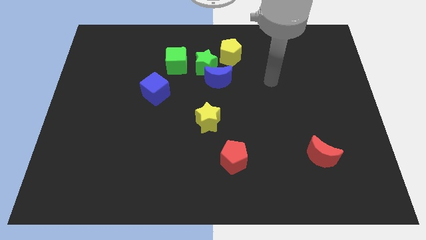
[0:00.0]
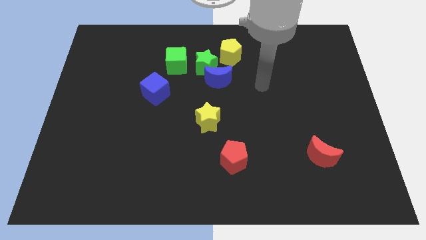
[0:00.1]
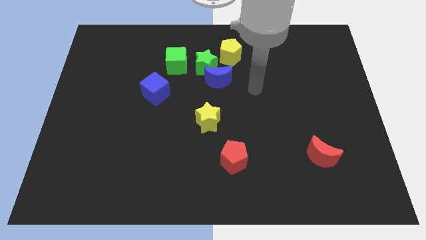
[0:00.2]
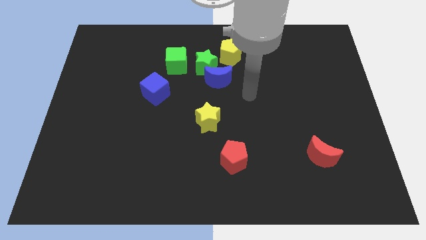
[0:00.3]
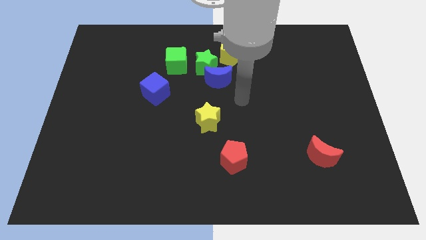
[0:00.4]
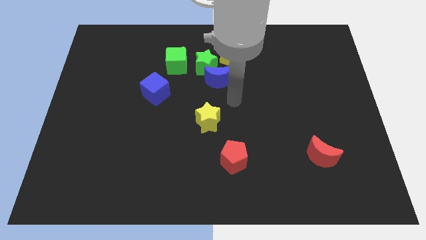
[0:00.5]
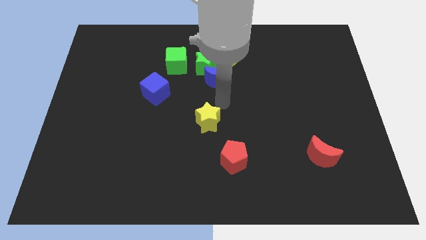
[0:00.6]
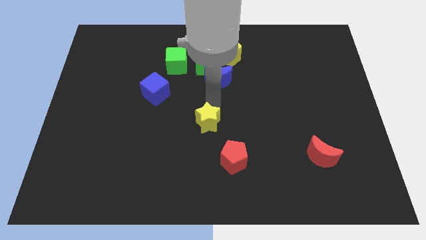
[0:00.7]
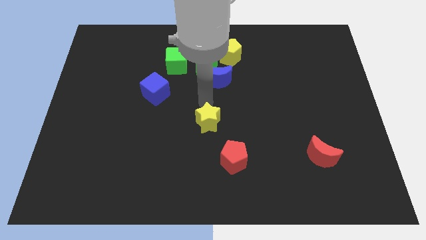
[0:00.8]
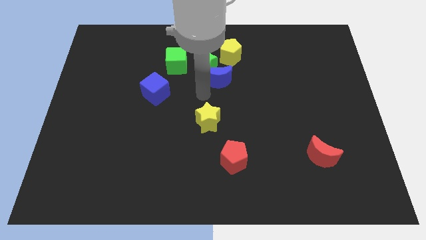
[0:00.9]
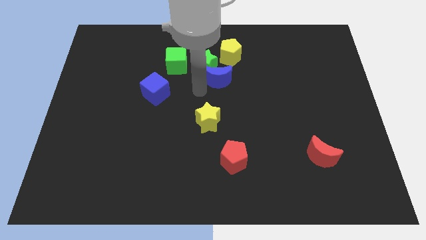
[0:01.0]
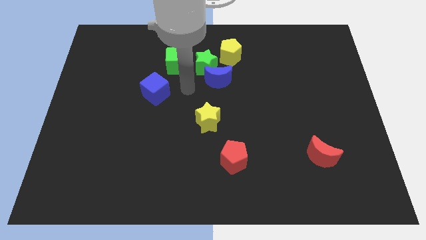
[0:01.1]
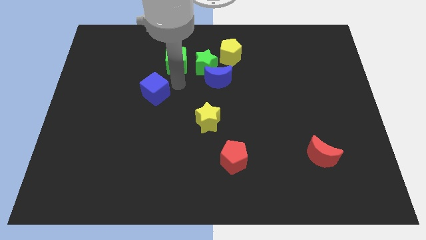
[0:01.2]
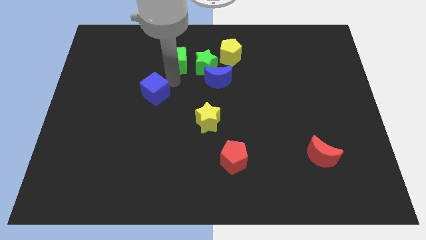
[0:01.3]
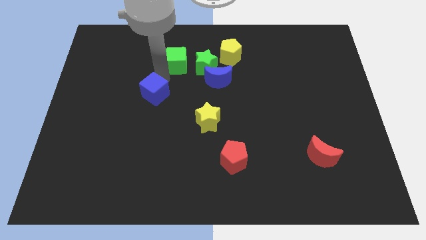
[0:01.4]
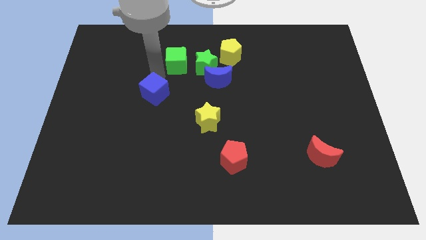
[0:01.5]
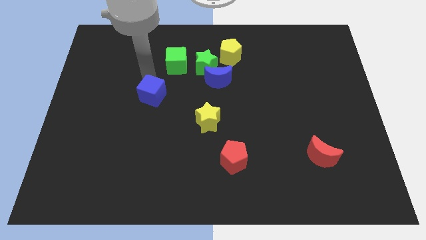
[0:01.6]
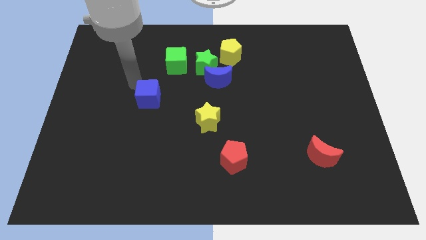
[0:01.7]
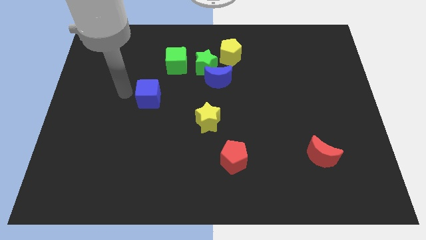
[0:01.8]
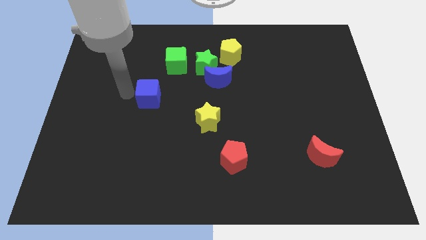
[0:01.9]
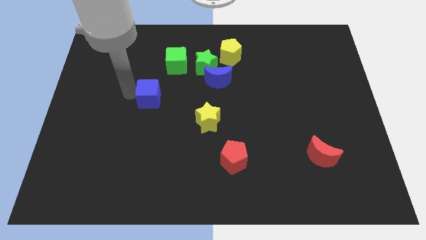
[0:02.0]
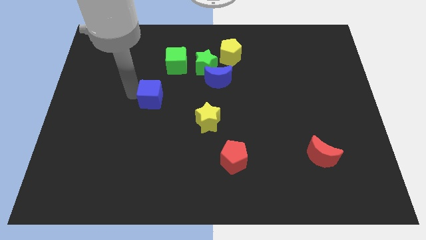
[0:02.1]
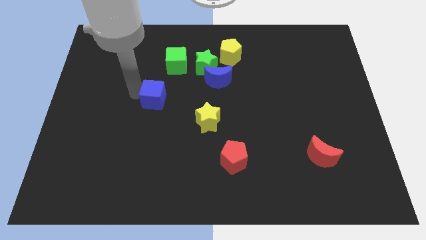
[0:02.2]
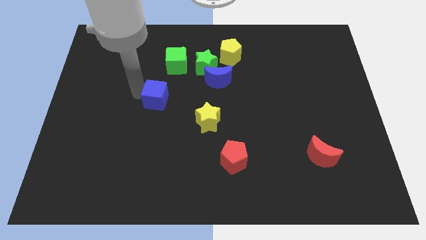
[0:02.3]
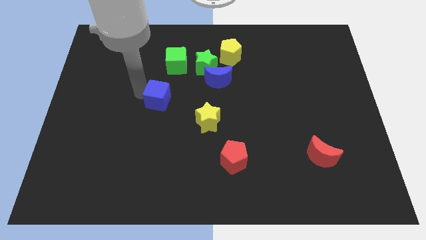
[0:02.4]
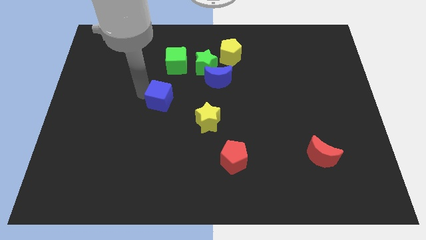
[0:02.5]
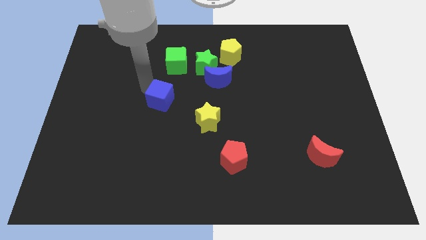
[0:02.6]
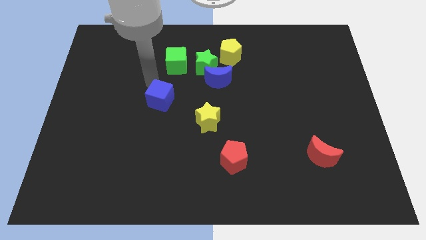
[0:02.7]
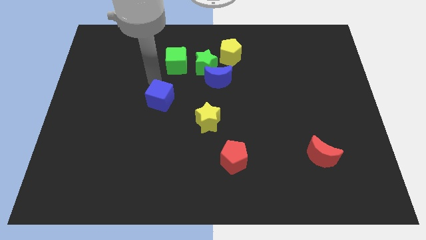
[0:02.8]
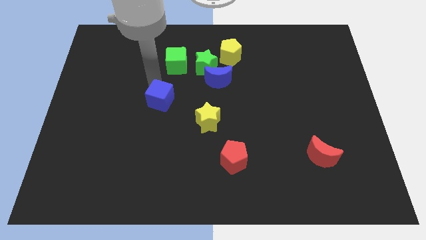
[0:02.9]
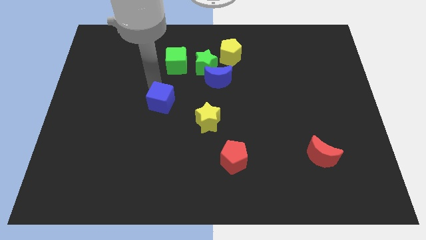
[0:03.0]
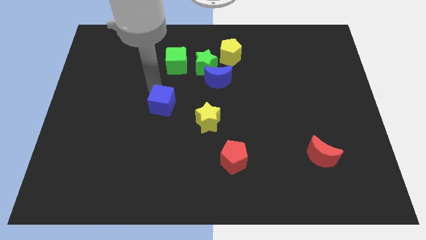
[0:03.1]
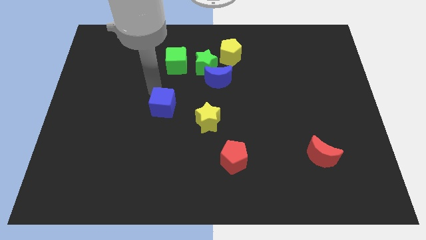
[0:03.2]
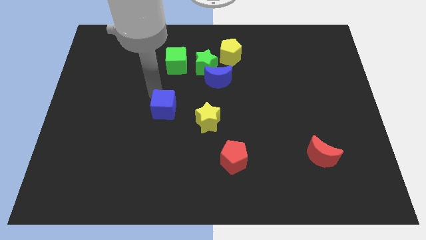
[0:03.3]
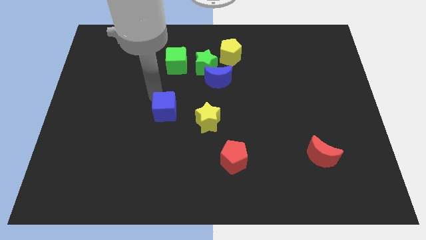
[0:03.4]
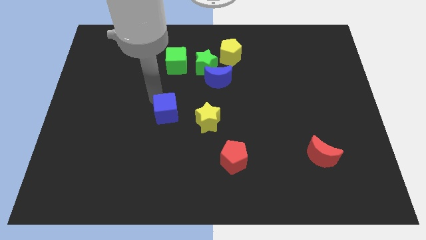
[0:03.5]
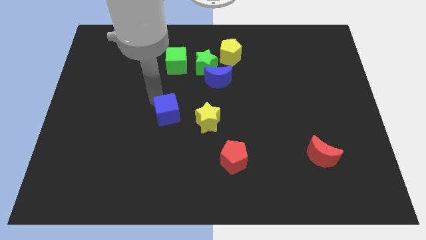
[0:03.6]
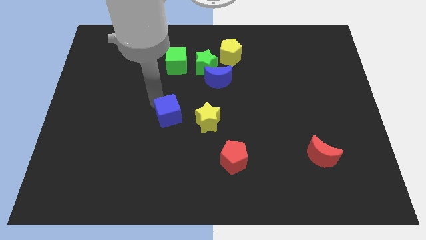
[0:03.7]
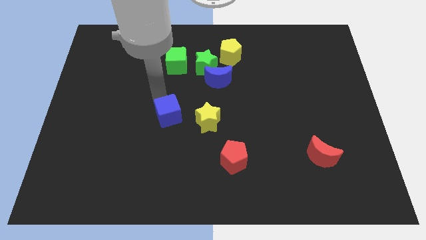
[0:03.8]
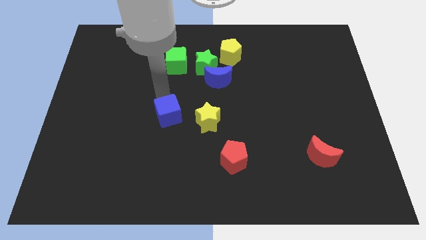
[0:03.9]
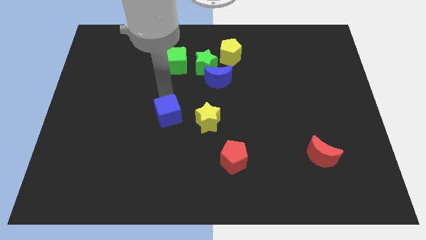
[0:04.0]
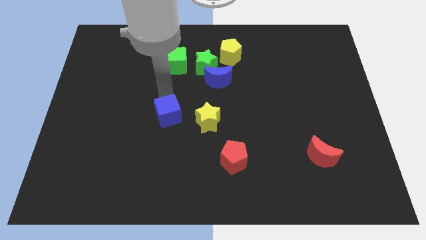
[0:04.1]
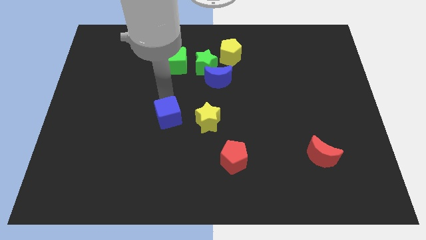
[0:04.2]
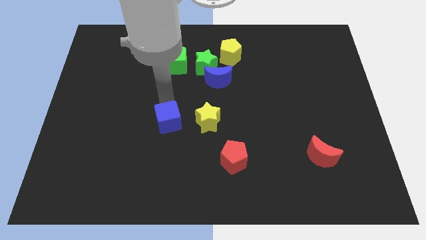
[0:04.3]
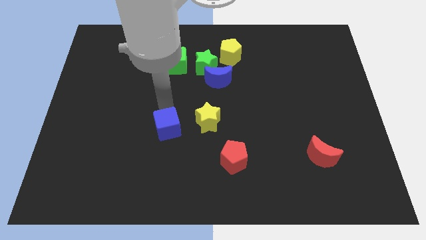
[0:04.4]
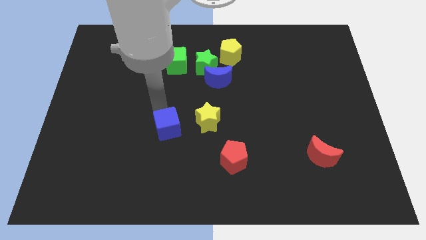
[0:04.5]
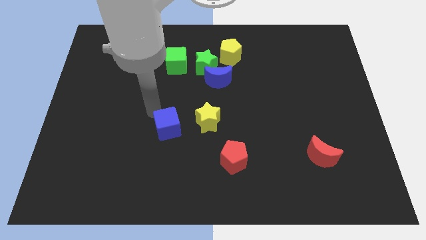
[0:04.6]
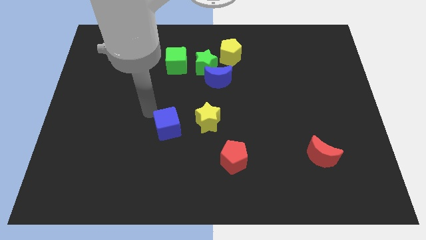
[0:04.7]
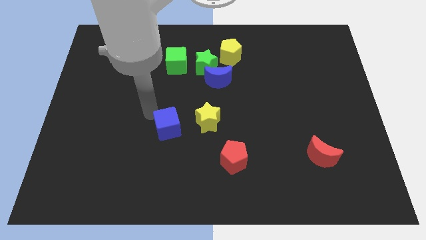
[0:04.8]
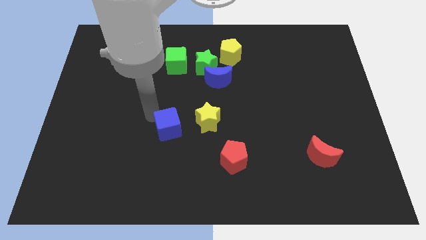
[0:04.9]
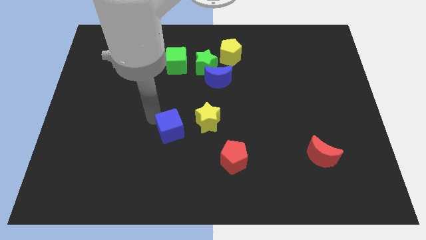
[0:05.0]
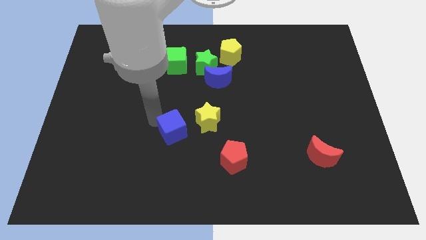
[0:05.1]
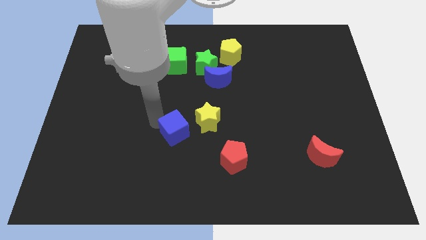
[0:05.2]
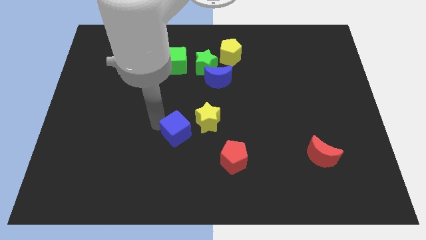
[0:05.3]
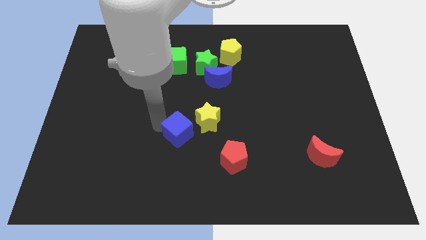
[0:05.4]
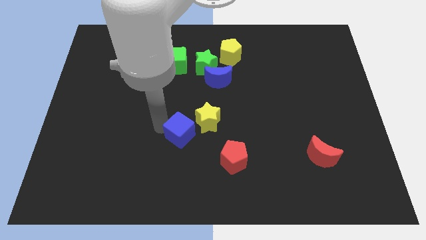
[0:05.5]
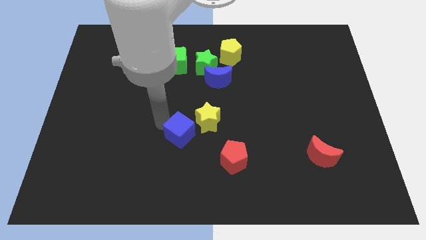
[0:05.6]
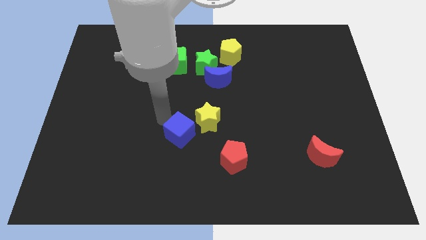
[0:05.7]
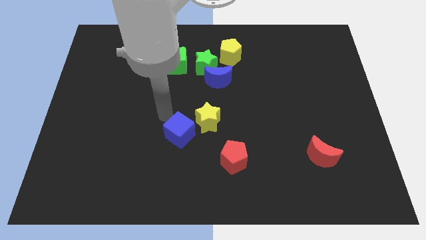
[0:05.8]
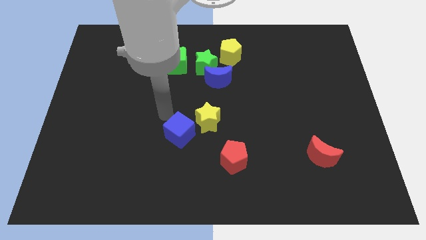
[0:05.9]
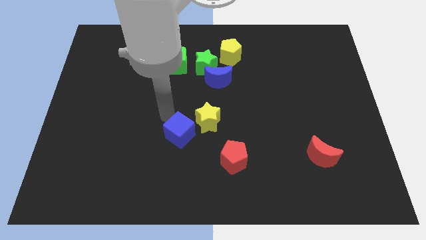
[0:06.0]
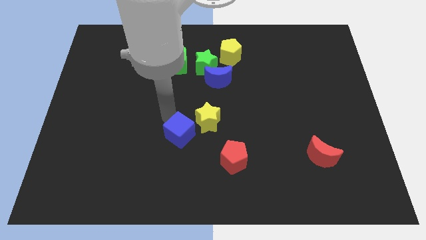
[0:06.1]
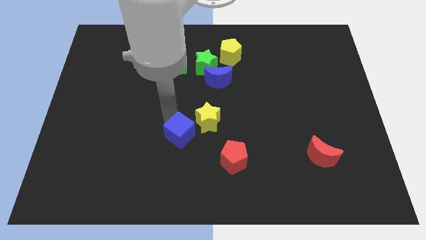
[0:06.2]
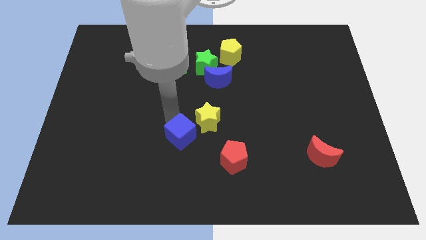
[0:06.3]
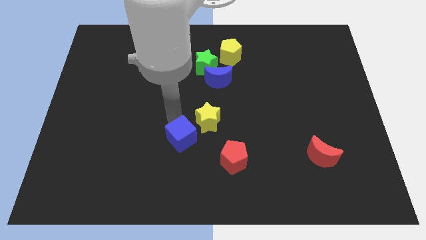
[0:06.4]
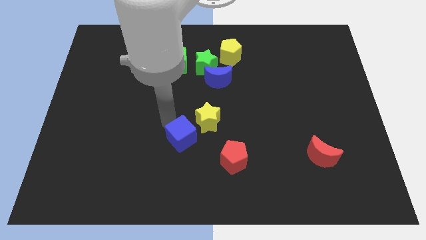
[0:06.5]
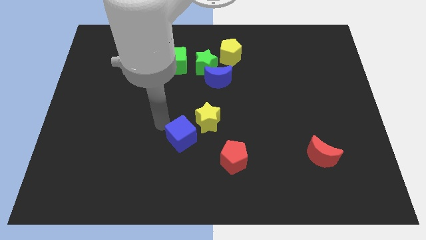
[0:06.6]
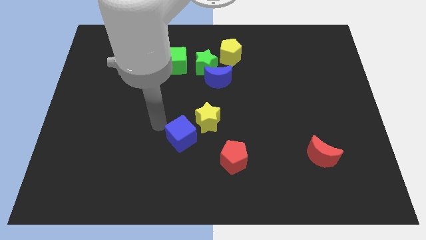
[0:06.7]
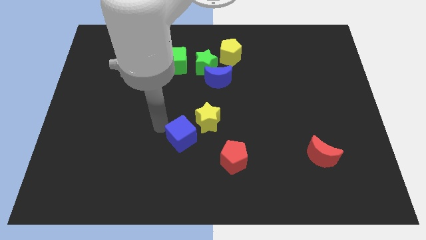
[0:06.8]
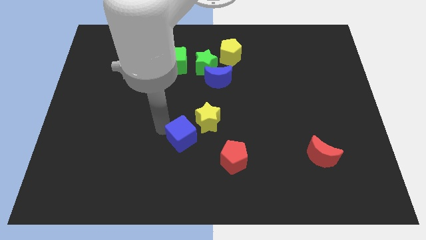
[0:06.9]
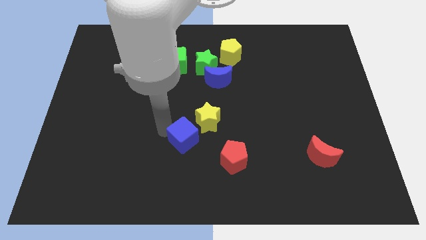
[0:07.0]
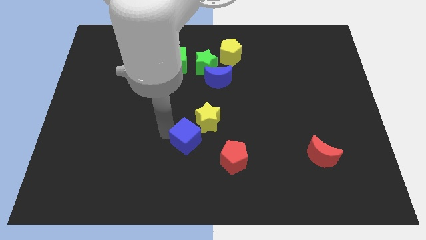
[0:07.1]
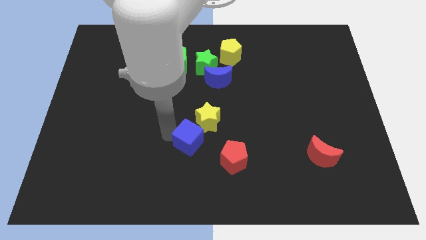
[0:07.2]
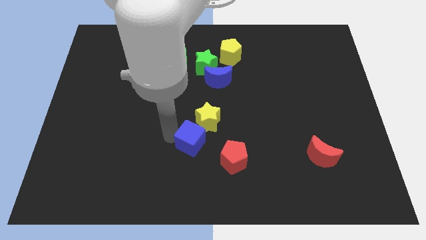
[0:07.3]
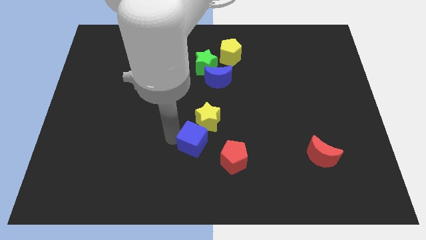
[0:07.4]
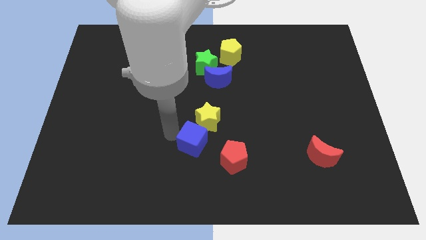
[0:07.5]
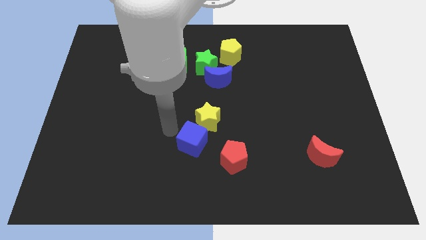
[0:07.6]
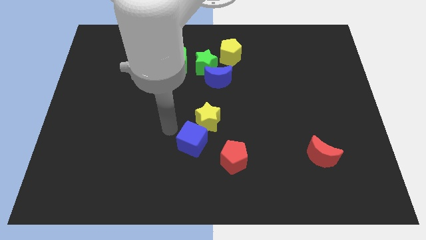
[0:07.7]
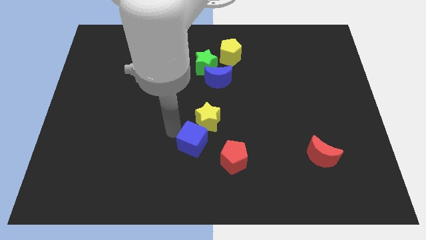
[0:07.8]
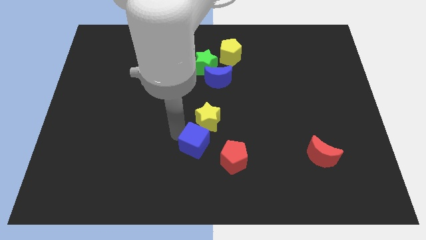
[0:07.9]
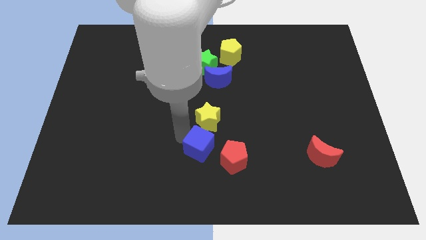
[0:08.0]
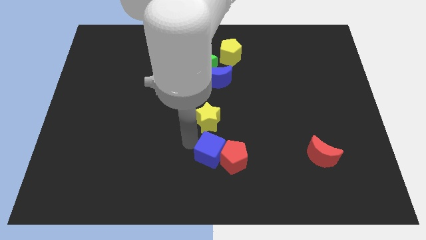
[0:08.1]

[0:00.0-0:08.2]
push the blue cube close to the red pentagon
